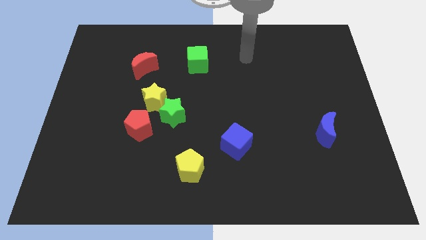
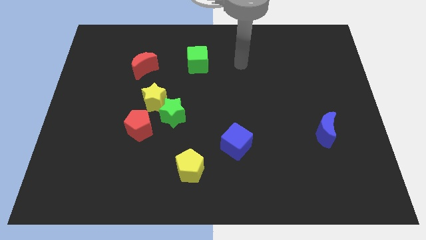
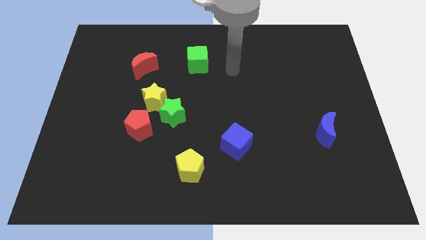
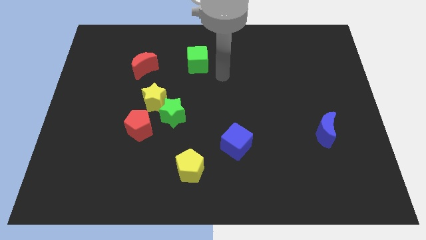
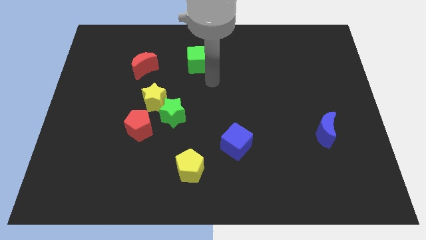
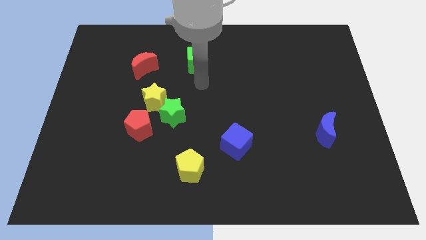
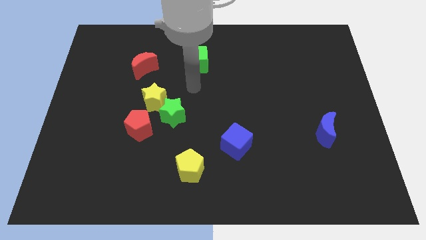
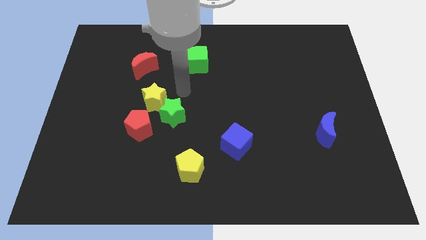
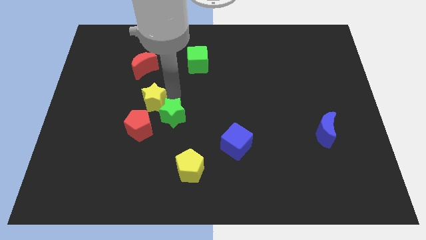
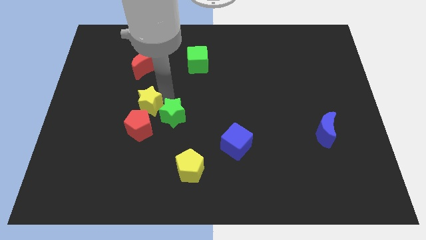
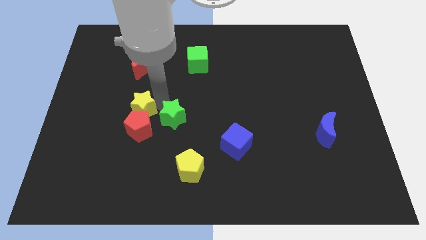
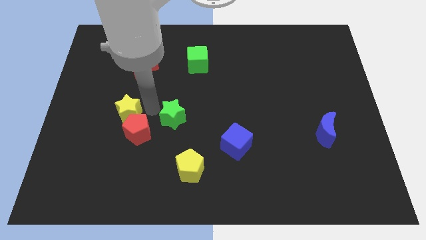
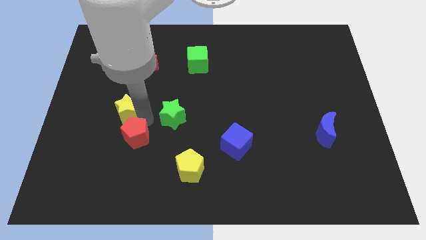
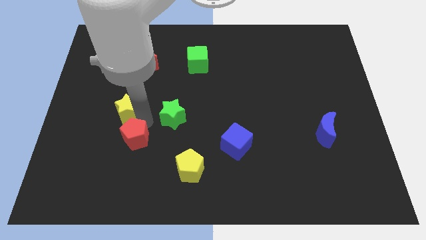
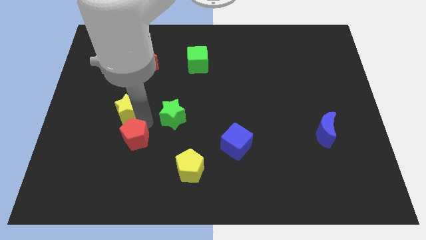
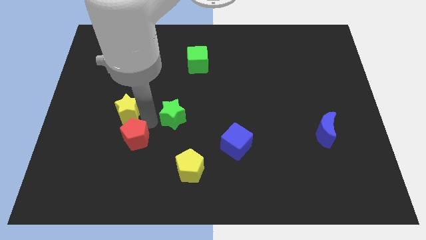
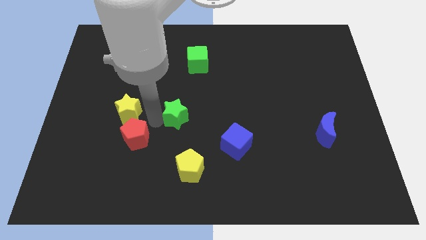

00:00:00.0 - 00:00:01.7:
separate the green star from the yellow star and red pentagon

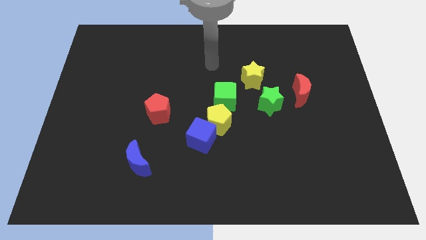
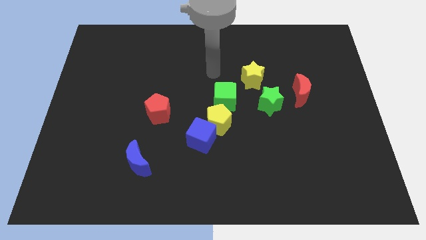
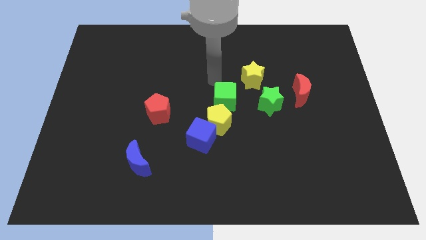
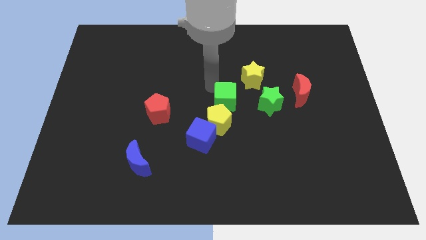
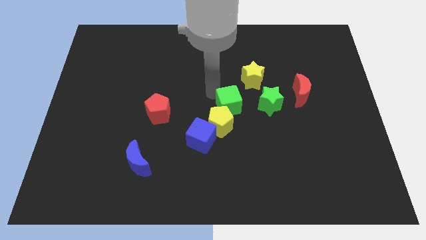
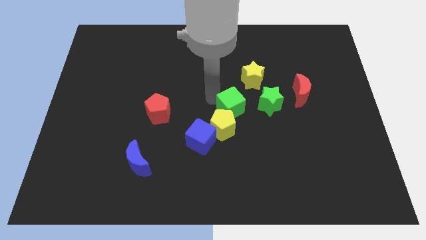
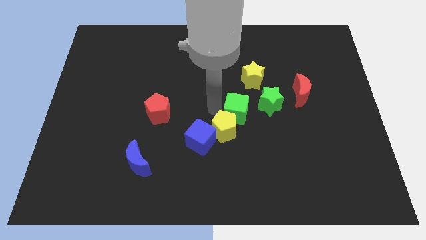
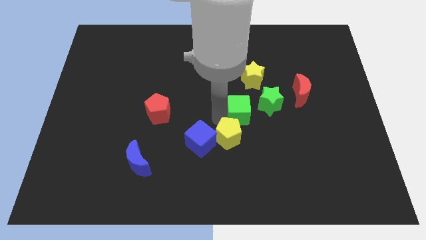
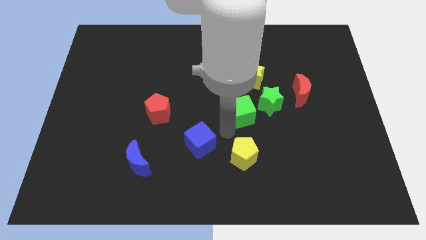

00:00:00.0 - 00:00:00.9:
pull the blue cube apart from the yellow pentagon

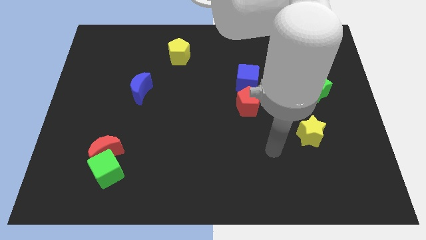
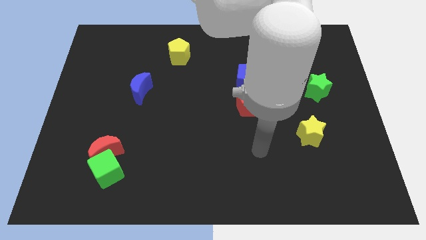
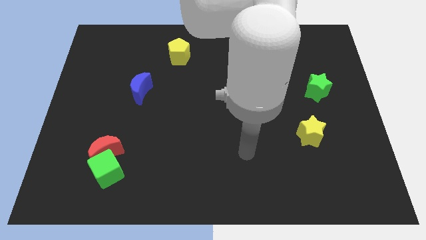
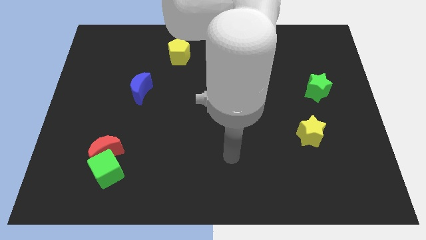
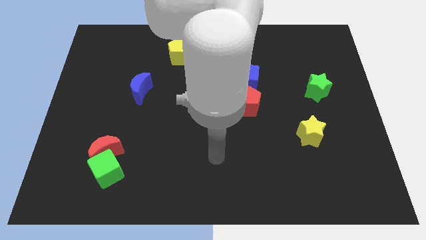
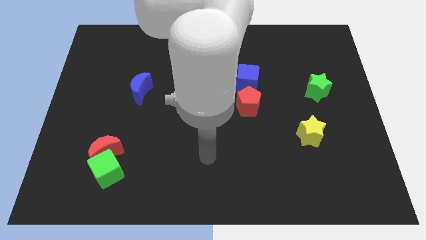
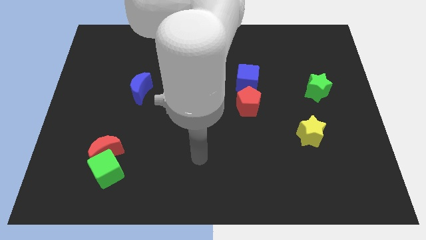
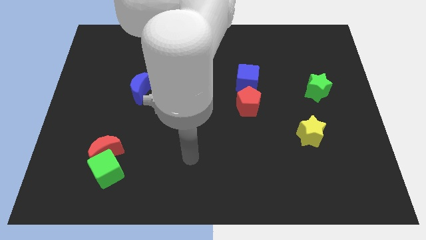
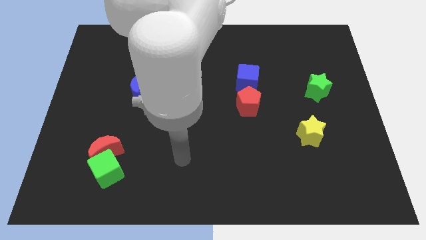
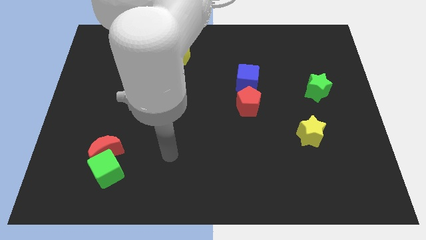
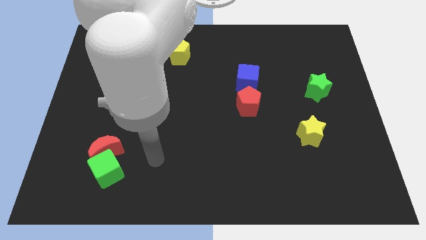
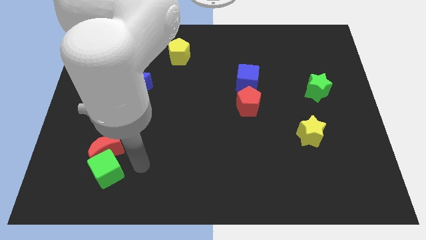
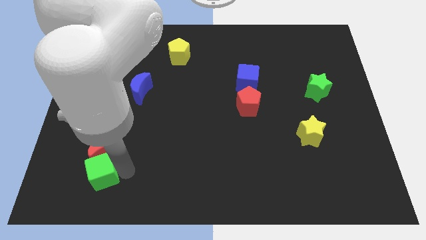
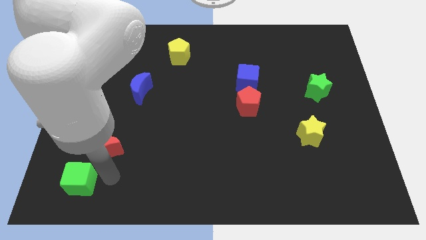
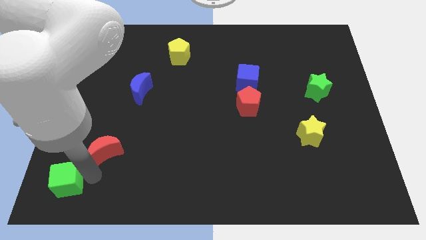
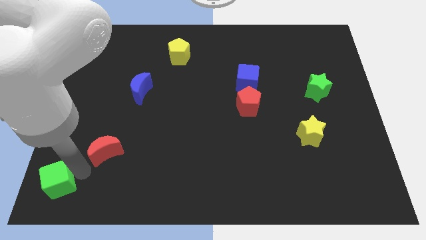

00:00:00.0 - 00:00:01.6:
move the red moon away from the green cube

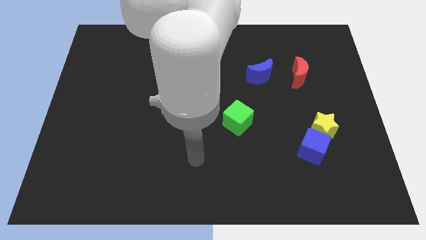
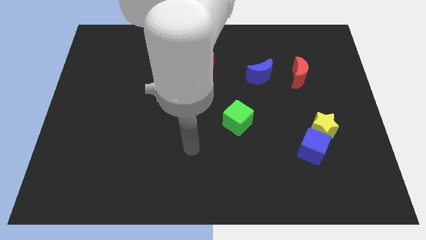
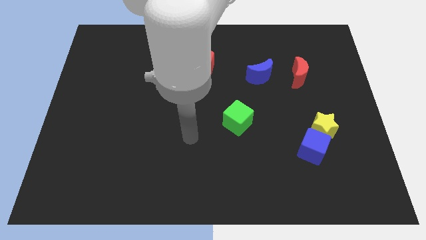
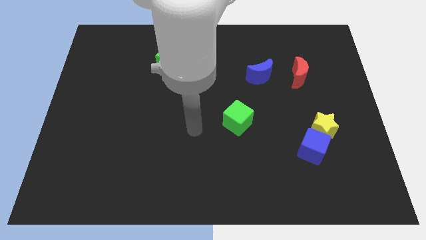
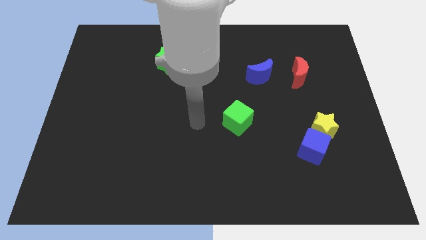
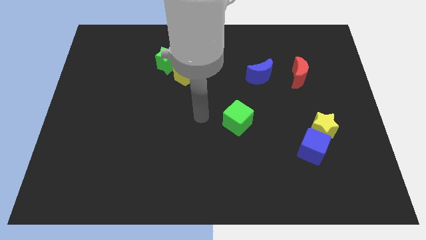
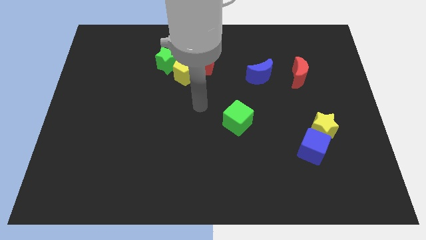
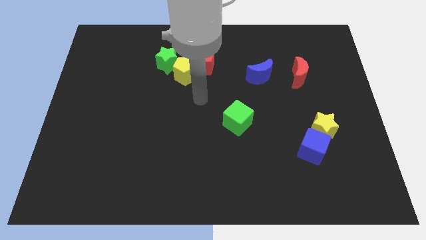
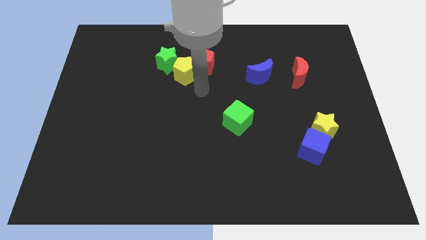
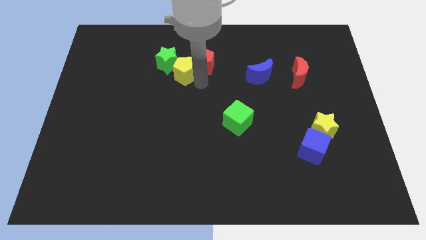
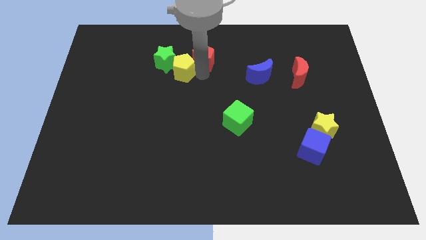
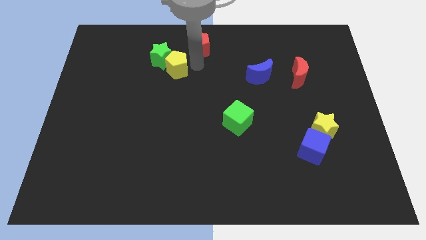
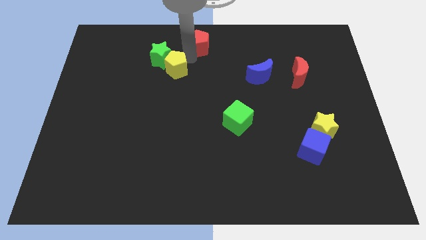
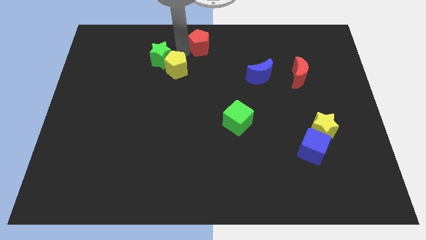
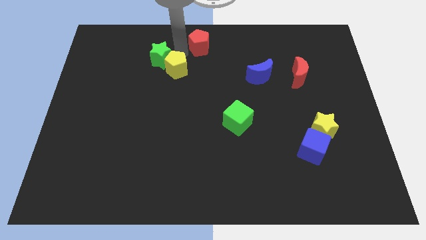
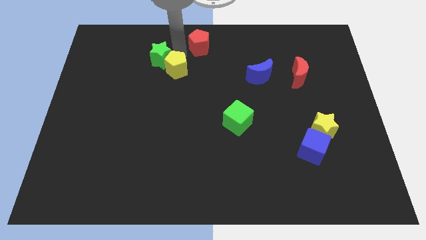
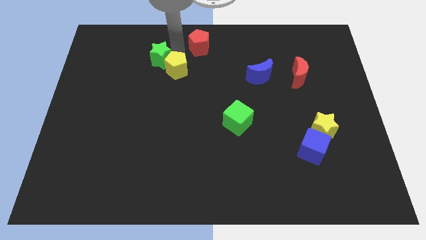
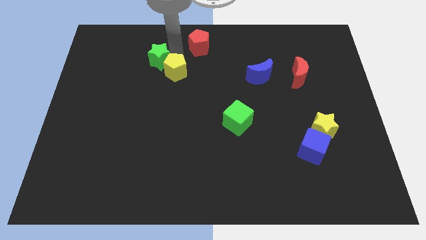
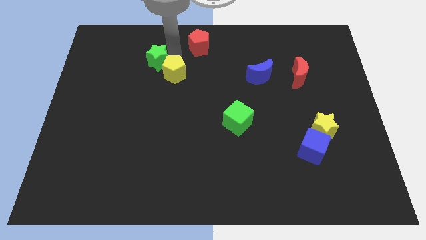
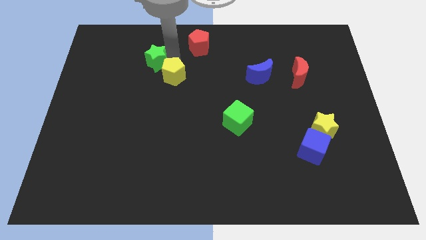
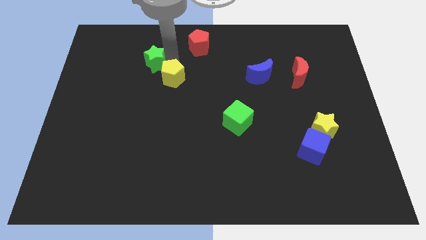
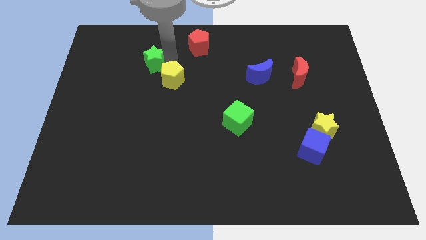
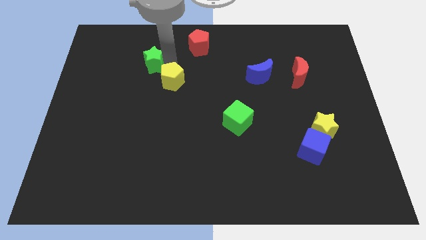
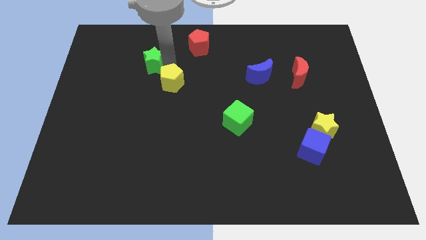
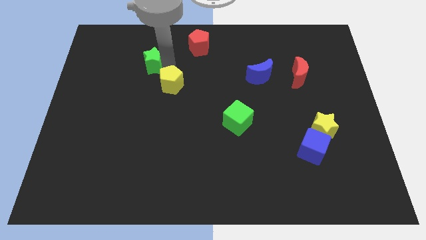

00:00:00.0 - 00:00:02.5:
pull the yellow pentagon apart from the green star and red pentagon

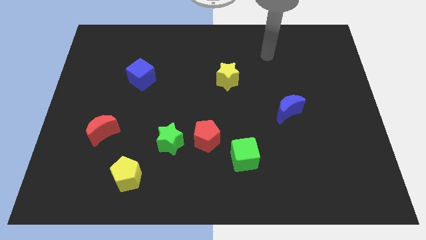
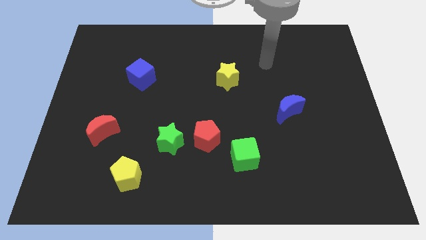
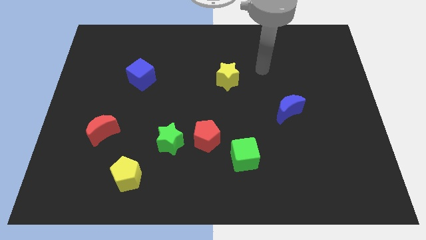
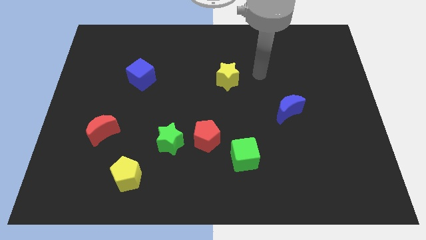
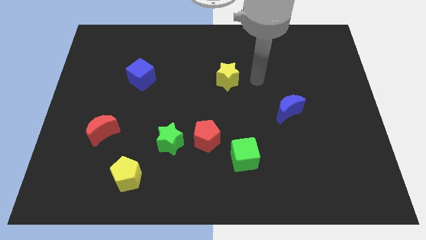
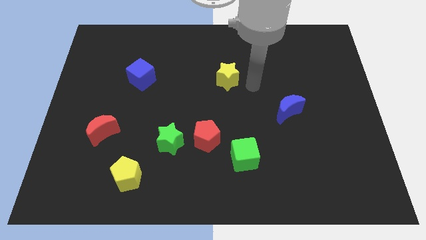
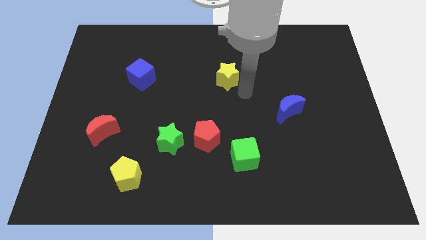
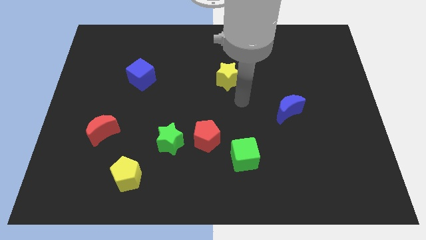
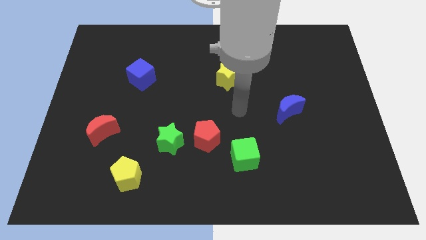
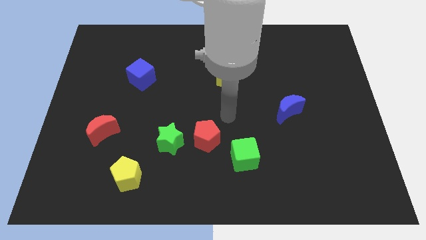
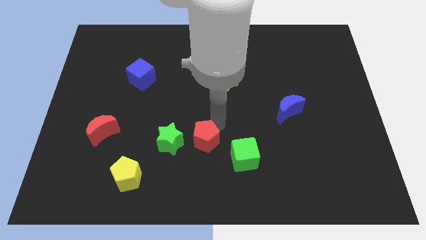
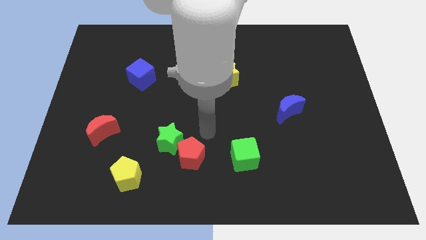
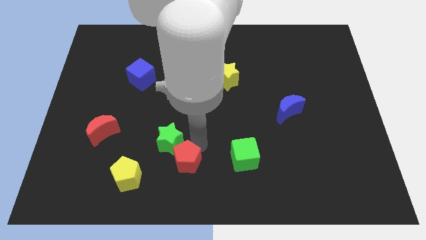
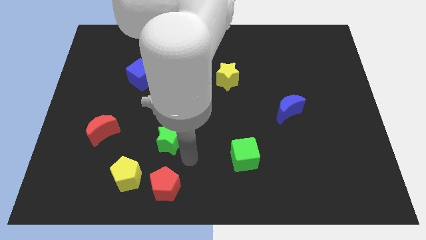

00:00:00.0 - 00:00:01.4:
separate the green star from the red pentagon

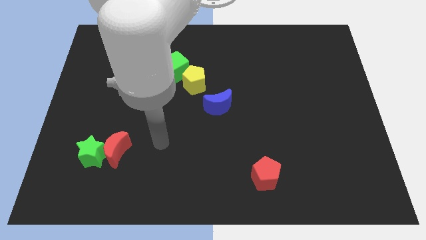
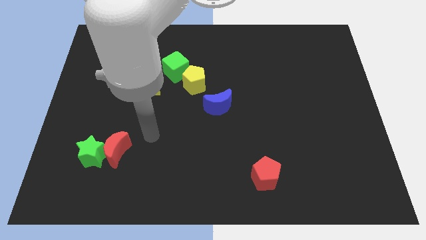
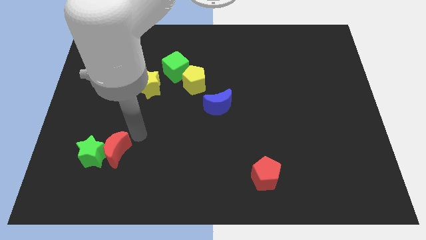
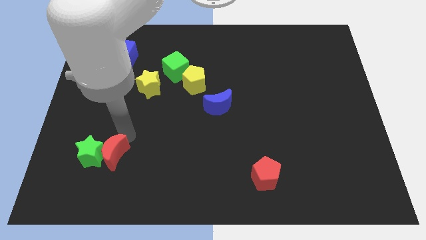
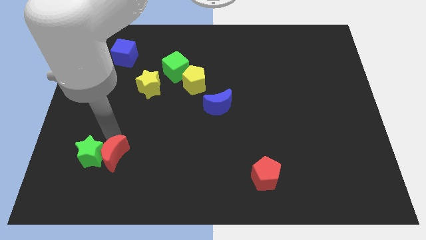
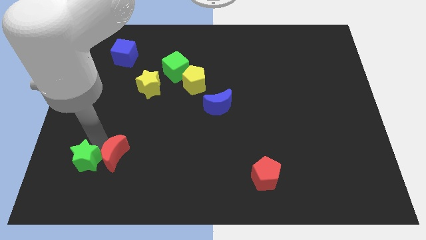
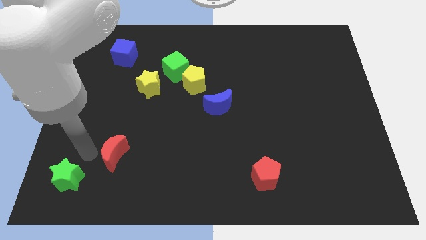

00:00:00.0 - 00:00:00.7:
move the red moon away from the green star

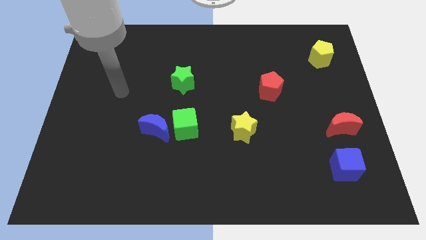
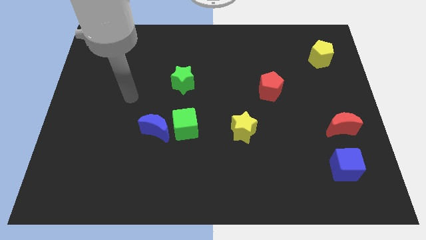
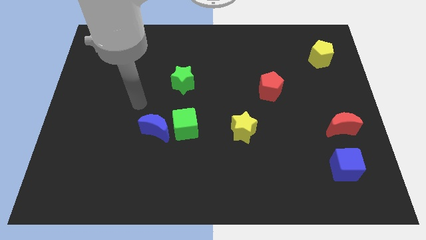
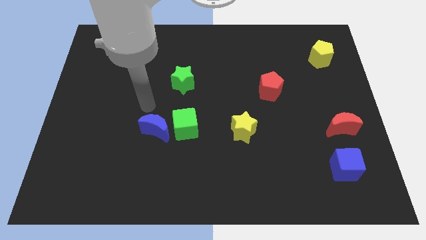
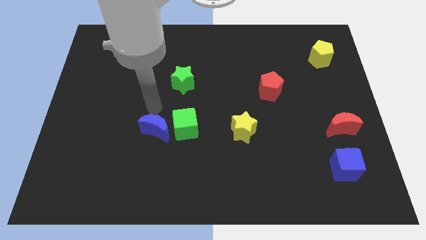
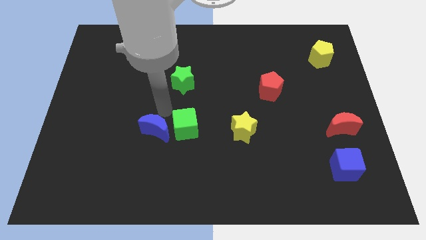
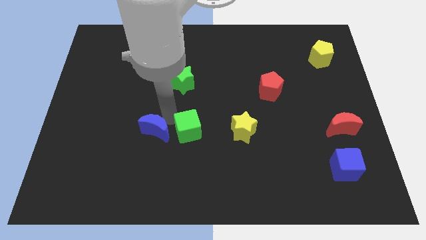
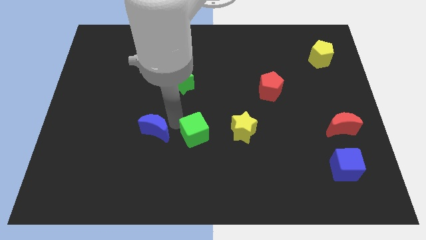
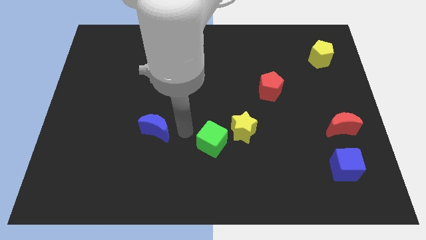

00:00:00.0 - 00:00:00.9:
pull the blue moon apart from the green cube
